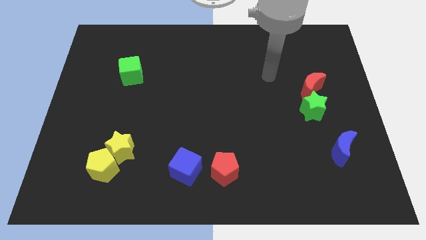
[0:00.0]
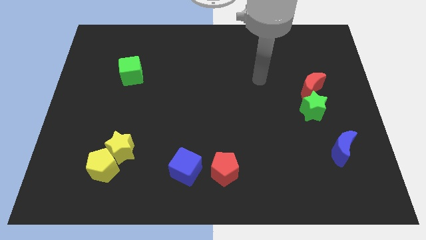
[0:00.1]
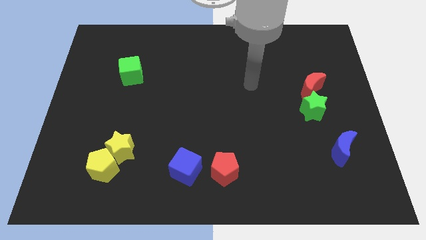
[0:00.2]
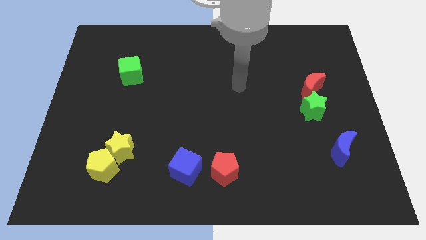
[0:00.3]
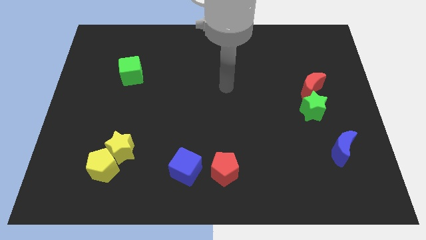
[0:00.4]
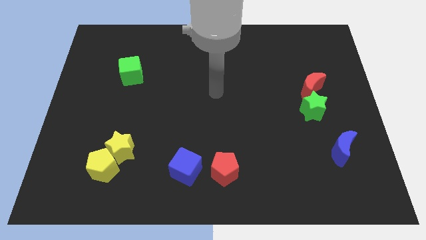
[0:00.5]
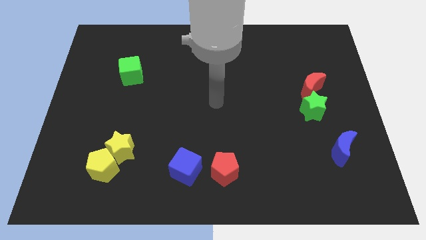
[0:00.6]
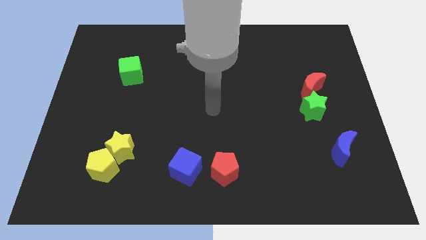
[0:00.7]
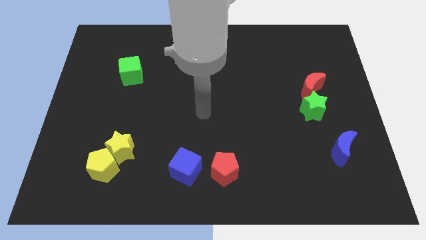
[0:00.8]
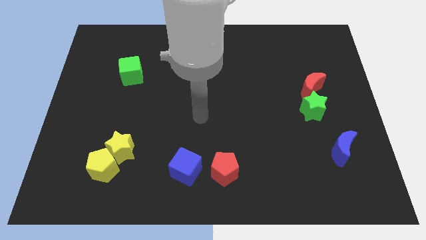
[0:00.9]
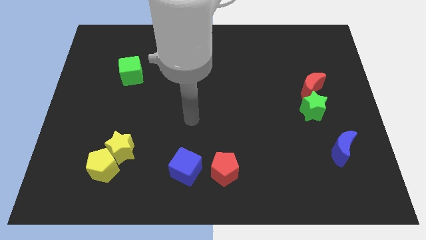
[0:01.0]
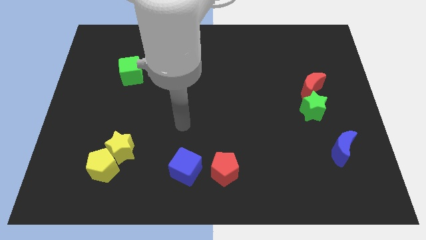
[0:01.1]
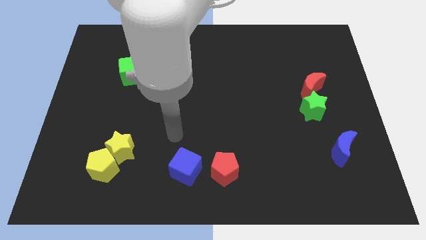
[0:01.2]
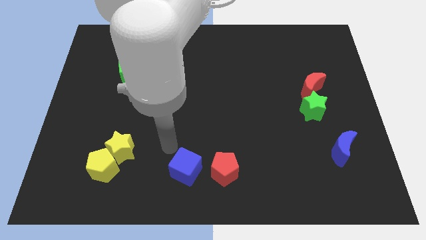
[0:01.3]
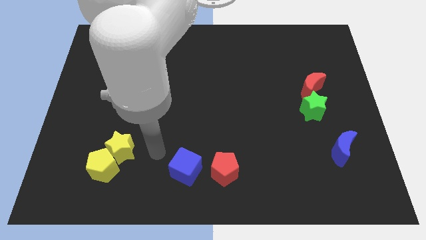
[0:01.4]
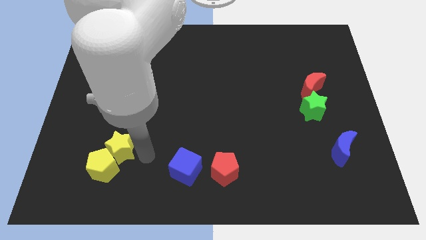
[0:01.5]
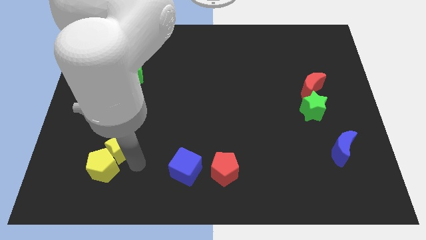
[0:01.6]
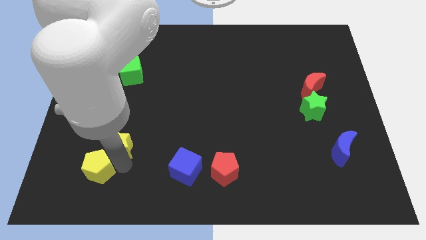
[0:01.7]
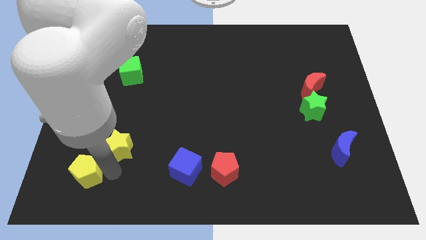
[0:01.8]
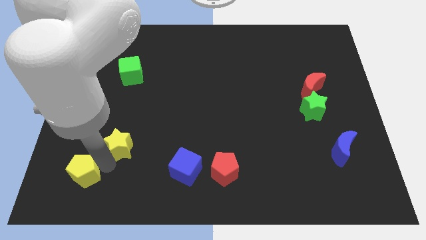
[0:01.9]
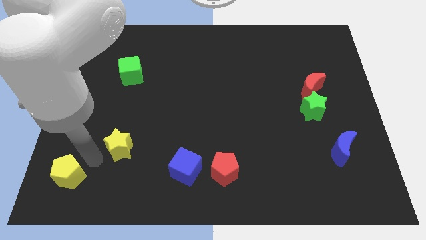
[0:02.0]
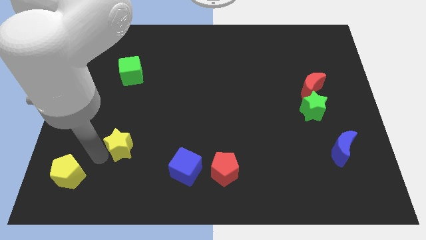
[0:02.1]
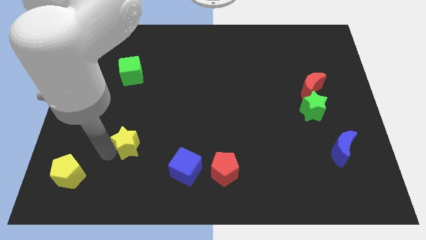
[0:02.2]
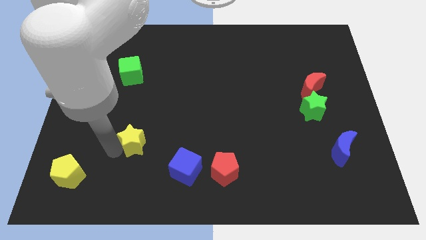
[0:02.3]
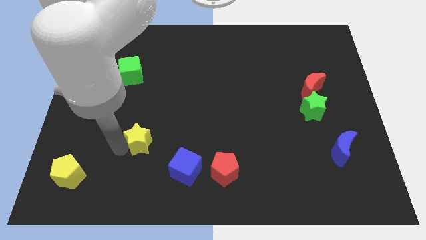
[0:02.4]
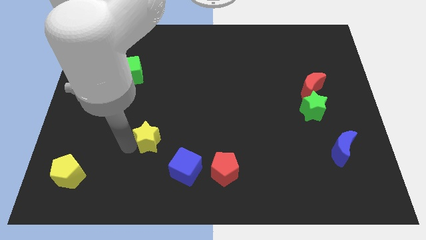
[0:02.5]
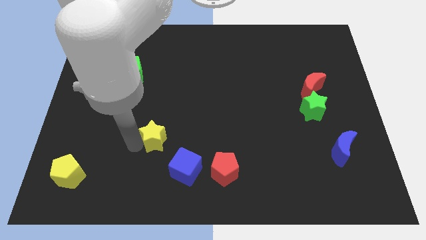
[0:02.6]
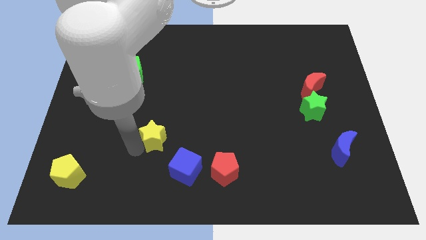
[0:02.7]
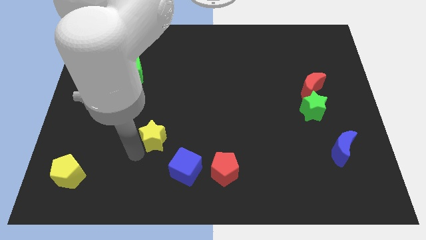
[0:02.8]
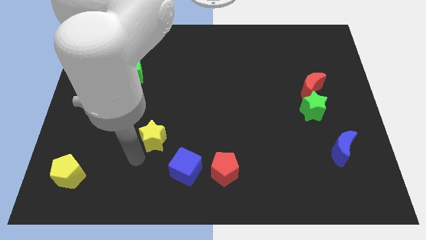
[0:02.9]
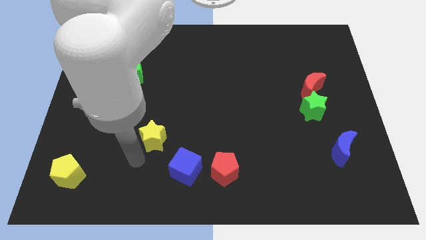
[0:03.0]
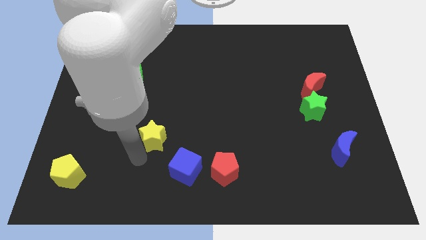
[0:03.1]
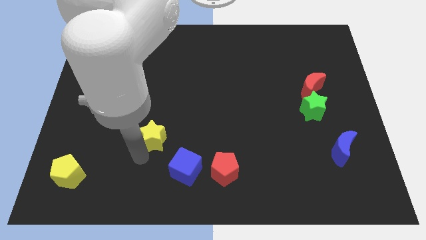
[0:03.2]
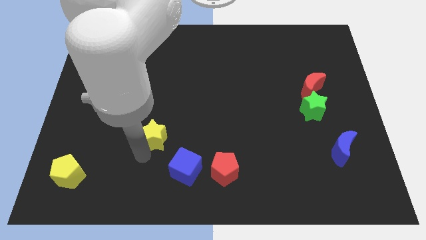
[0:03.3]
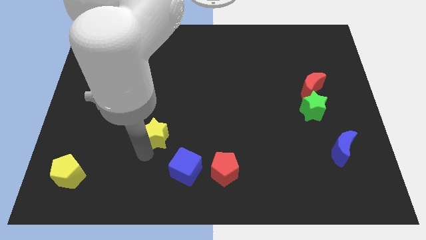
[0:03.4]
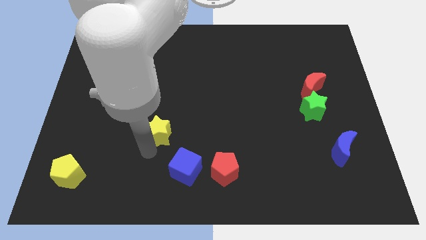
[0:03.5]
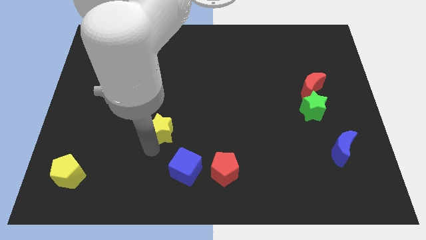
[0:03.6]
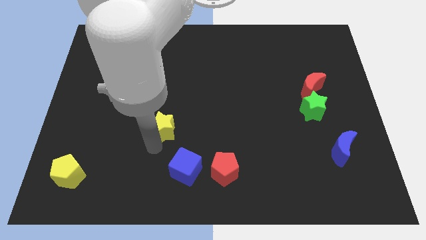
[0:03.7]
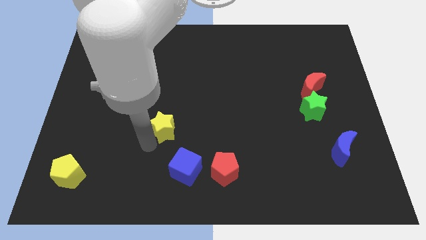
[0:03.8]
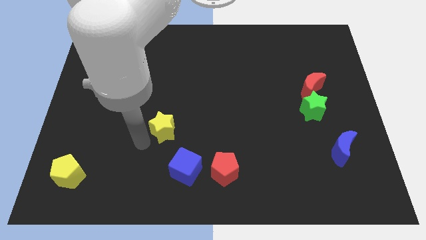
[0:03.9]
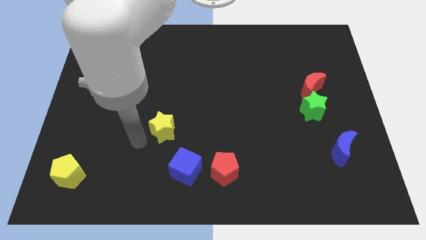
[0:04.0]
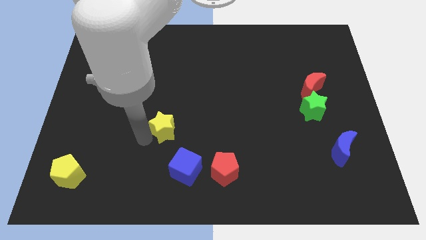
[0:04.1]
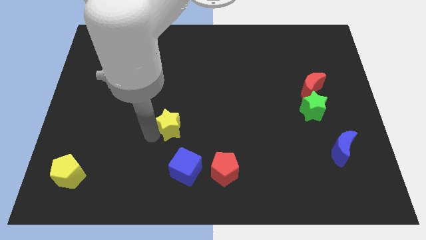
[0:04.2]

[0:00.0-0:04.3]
slide the yellow star to the middle of the board

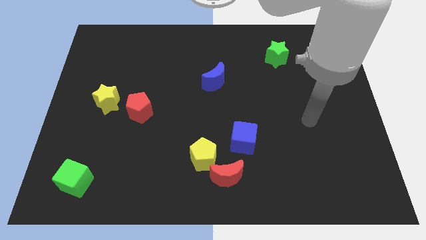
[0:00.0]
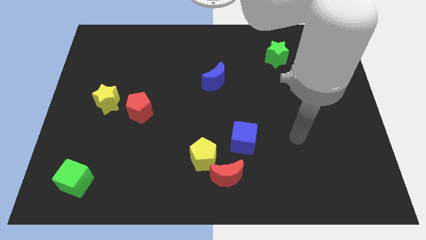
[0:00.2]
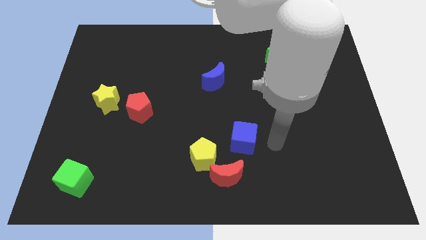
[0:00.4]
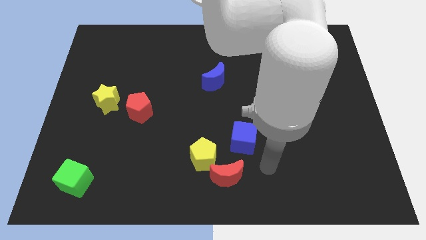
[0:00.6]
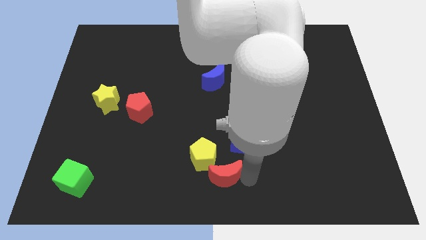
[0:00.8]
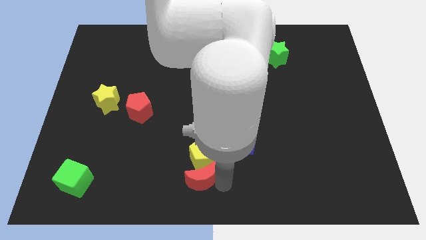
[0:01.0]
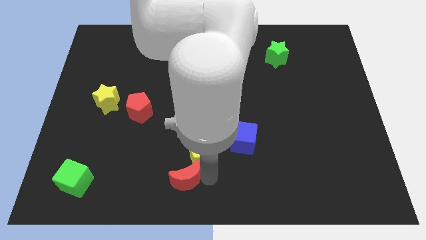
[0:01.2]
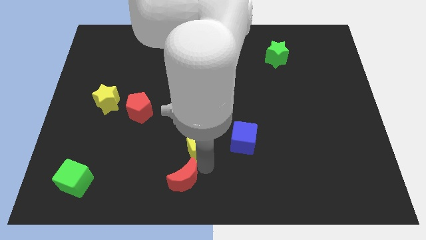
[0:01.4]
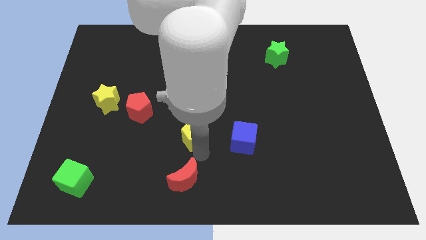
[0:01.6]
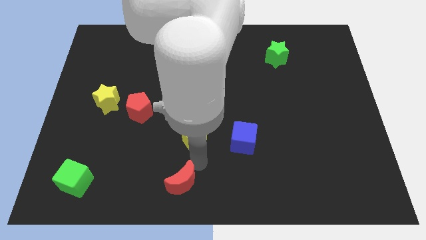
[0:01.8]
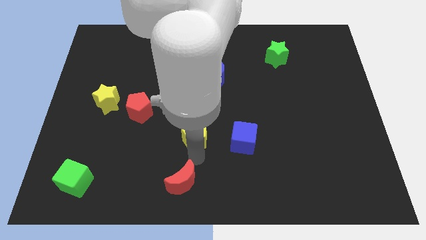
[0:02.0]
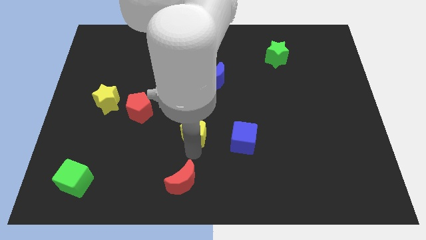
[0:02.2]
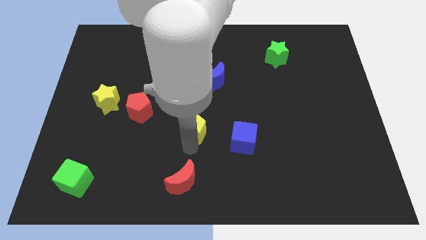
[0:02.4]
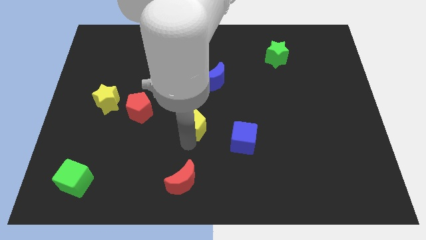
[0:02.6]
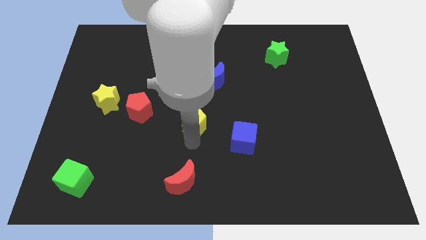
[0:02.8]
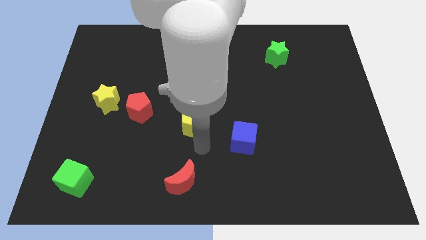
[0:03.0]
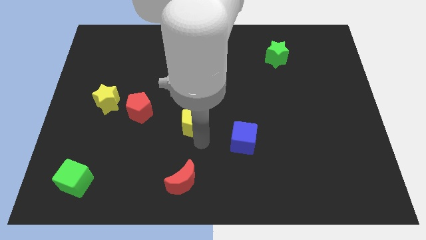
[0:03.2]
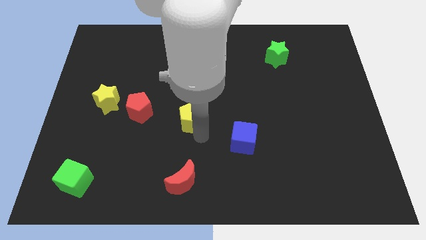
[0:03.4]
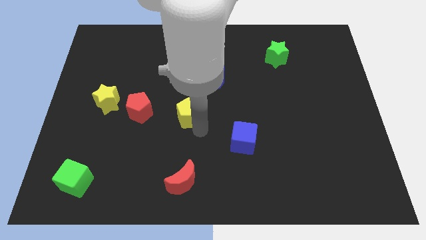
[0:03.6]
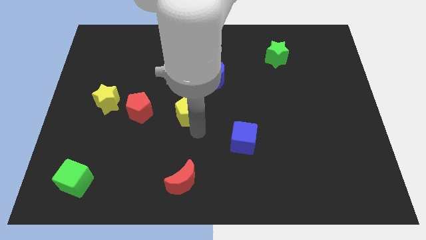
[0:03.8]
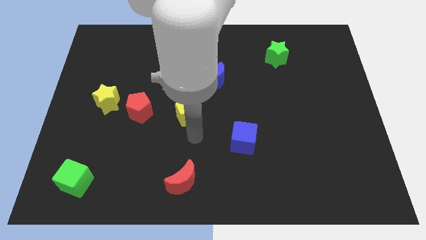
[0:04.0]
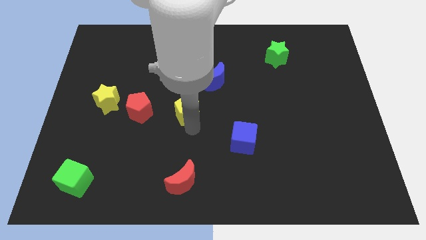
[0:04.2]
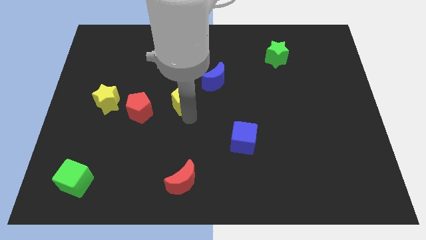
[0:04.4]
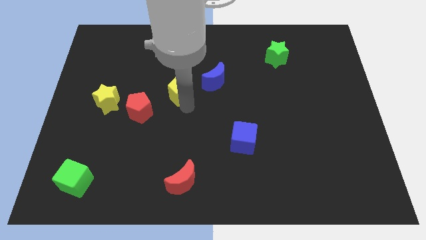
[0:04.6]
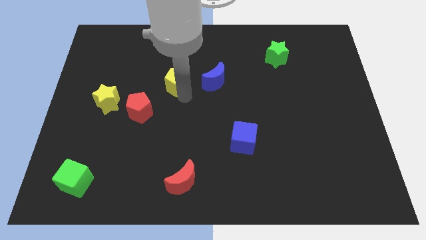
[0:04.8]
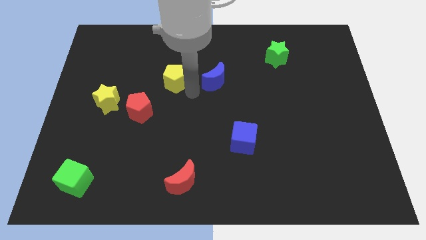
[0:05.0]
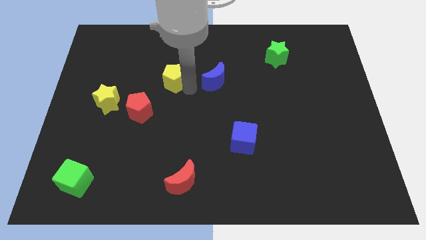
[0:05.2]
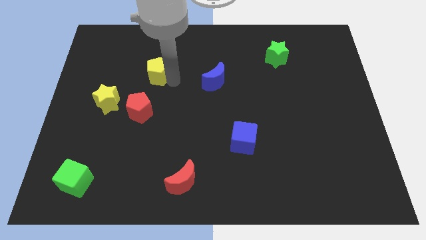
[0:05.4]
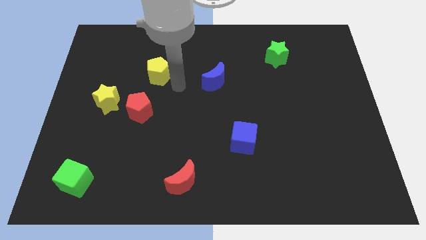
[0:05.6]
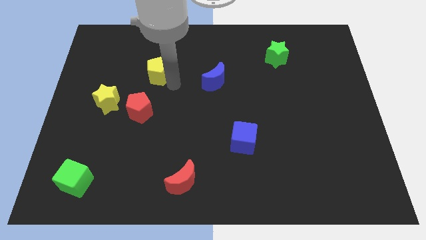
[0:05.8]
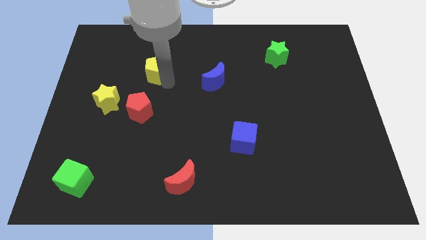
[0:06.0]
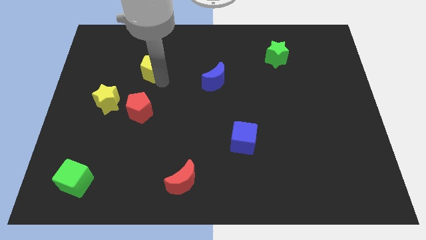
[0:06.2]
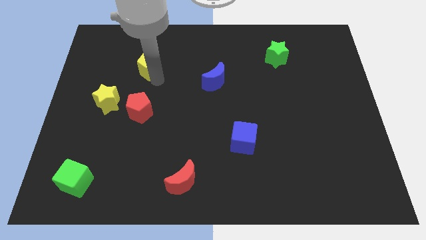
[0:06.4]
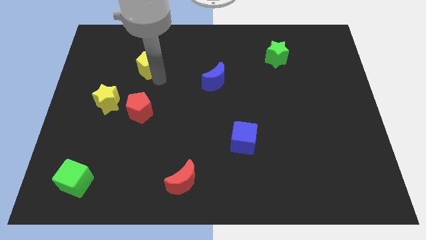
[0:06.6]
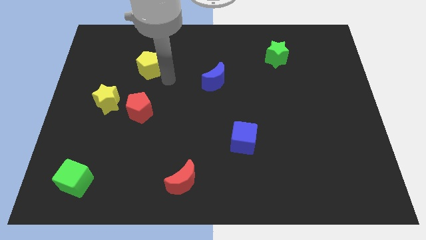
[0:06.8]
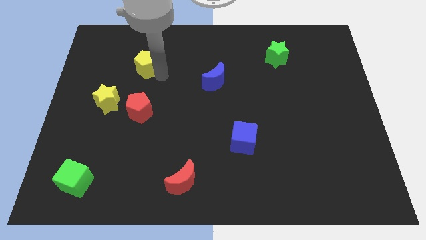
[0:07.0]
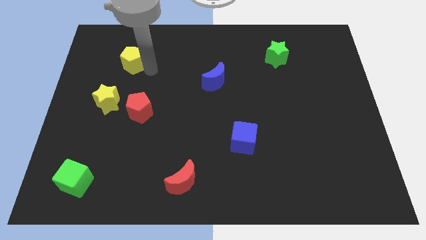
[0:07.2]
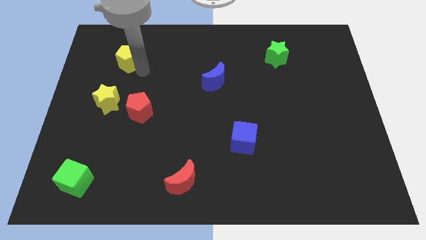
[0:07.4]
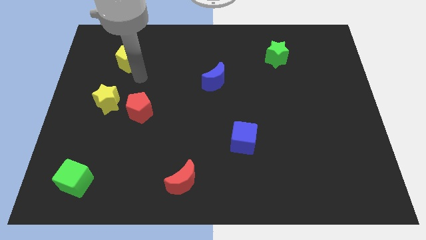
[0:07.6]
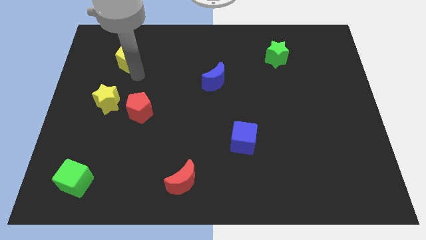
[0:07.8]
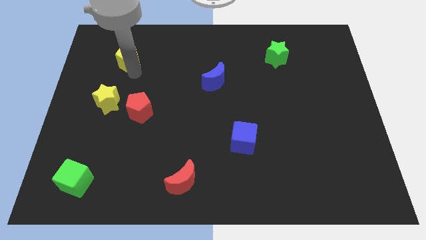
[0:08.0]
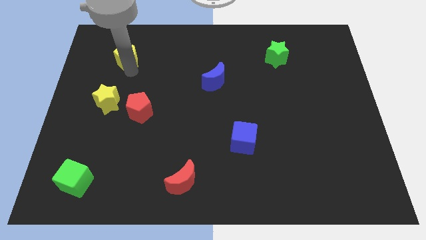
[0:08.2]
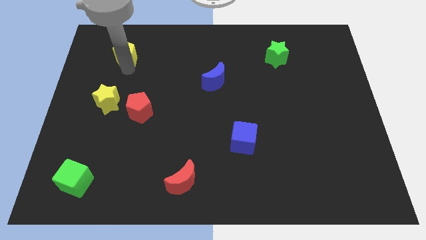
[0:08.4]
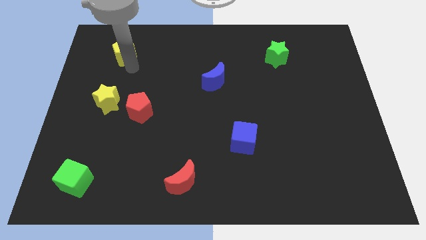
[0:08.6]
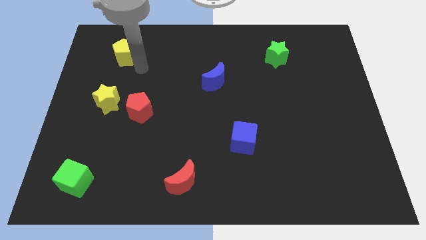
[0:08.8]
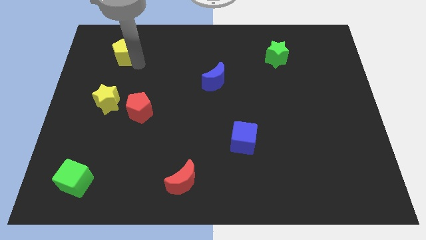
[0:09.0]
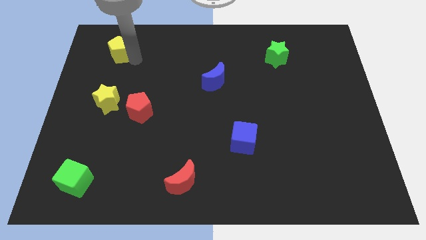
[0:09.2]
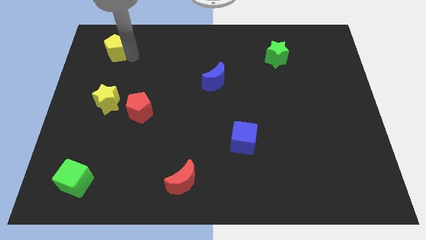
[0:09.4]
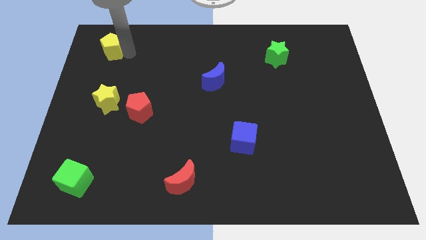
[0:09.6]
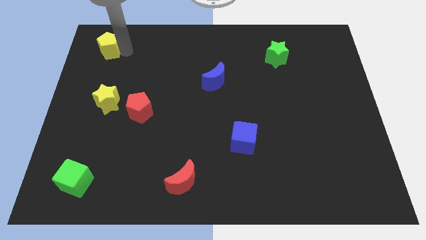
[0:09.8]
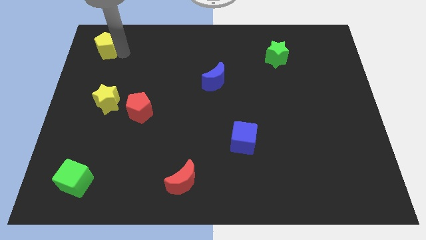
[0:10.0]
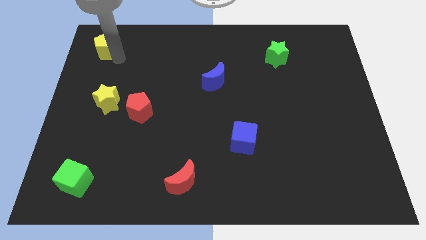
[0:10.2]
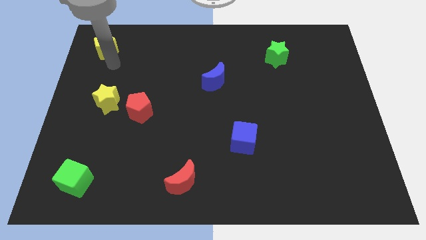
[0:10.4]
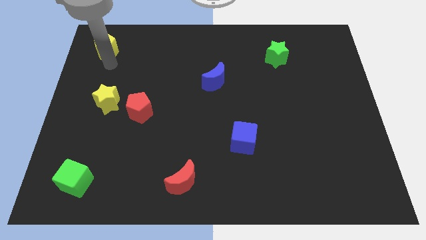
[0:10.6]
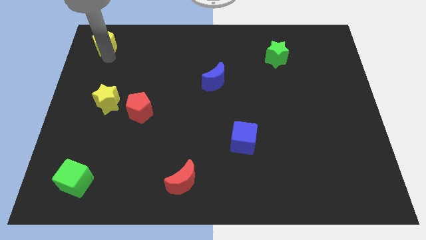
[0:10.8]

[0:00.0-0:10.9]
slide the yellow pentagon to the top left
